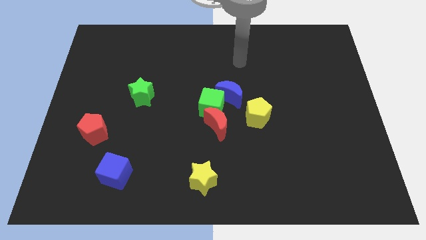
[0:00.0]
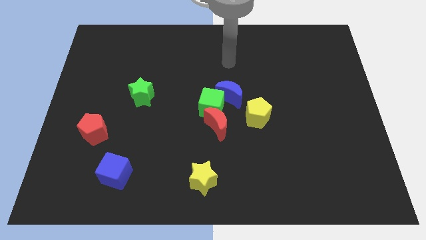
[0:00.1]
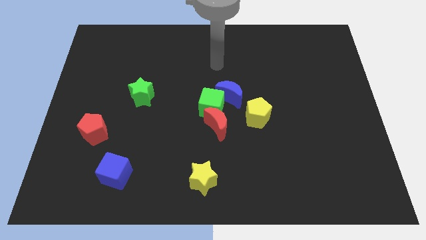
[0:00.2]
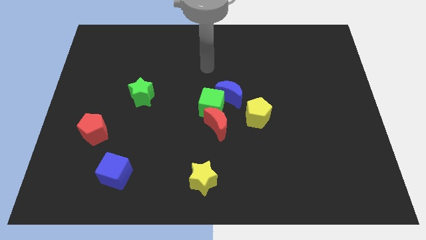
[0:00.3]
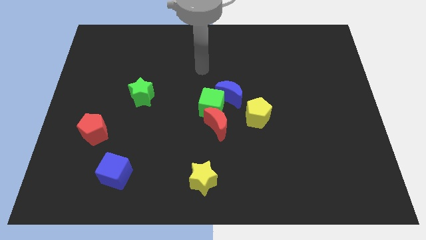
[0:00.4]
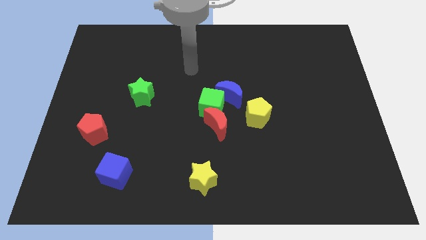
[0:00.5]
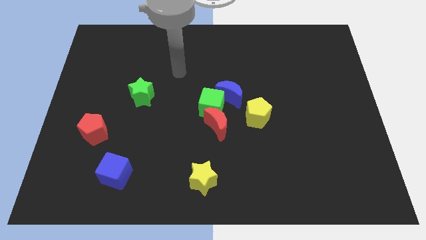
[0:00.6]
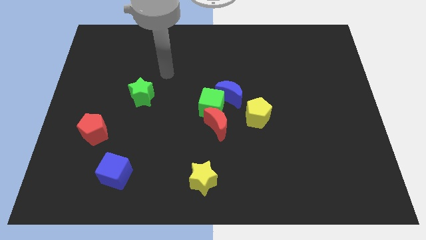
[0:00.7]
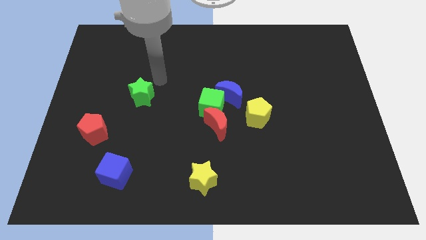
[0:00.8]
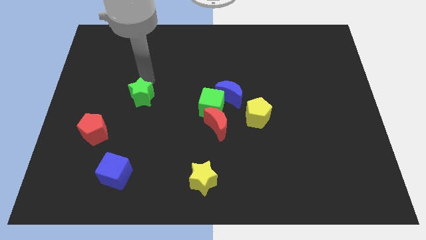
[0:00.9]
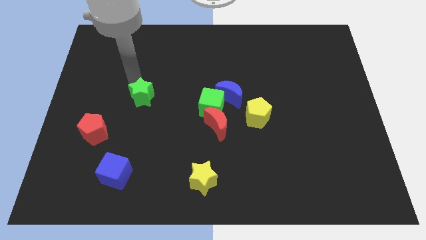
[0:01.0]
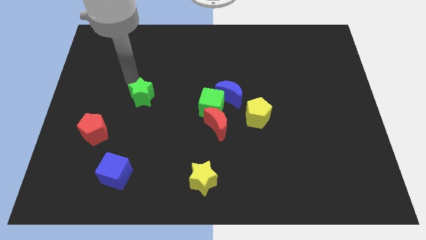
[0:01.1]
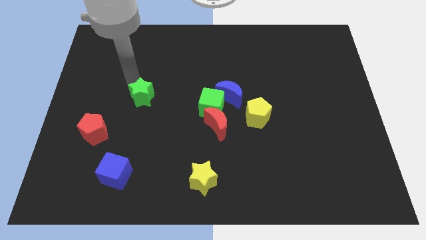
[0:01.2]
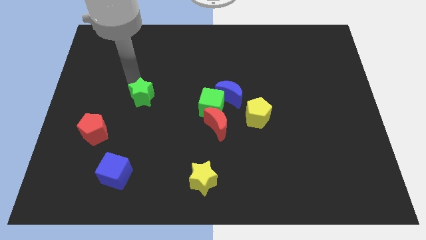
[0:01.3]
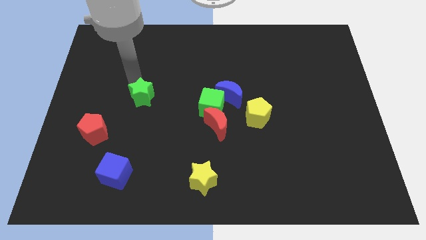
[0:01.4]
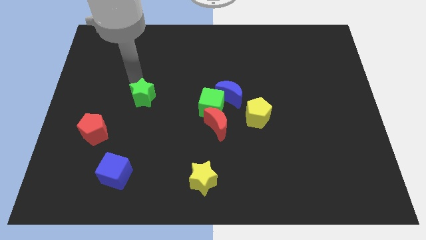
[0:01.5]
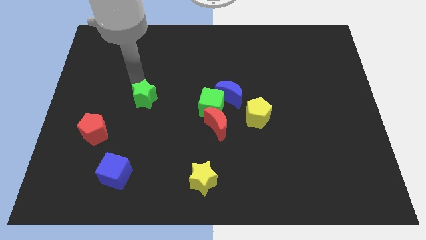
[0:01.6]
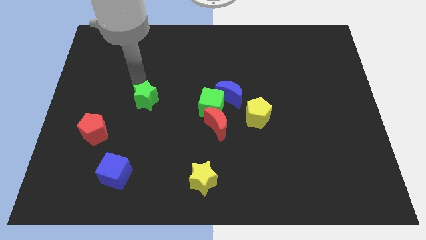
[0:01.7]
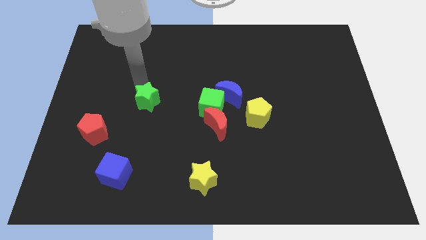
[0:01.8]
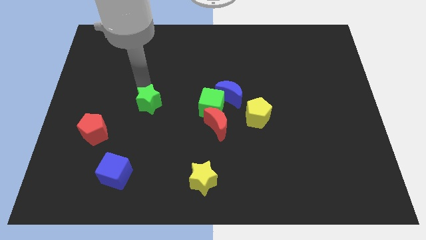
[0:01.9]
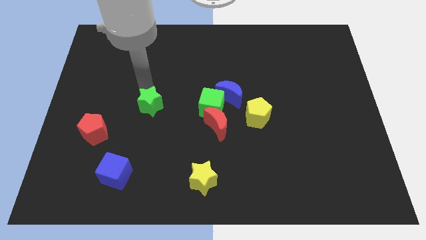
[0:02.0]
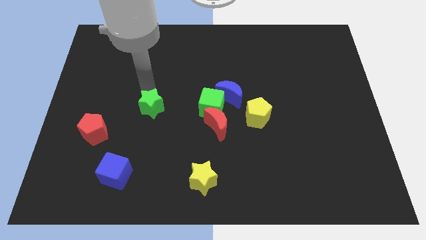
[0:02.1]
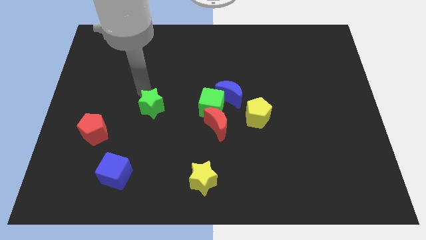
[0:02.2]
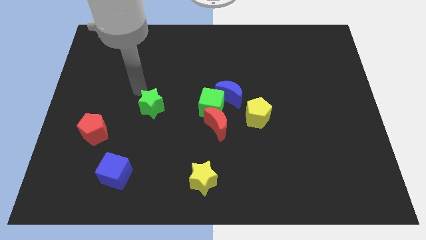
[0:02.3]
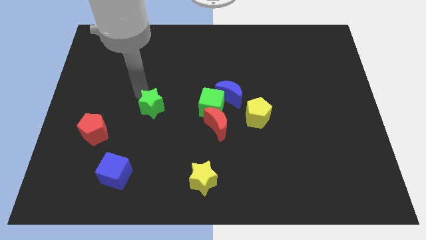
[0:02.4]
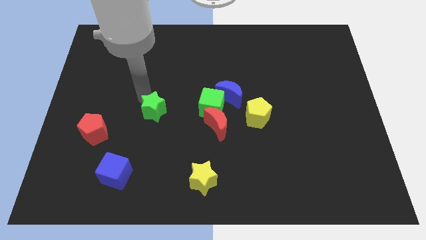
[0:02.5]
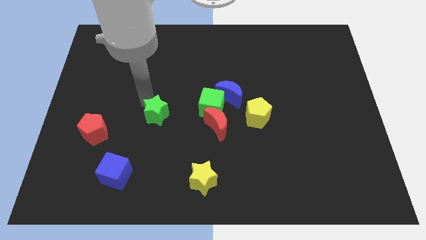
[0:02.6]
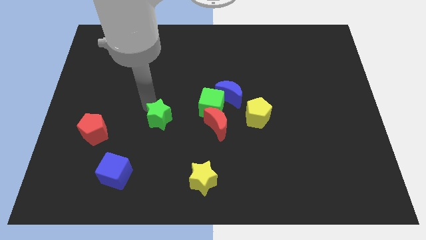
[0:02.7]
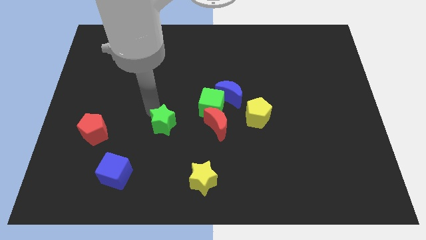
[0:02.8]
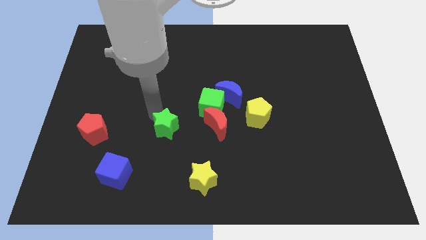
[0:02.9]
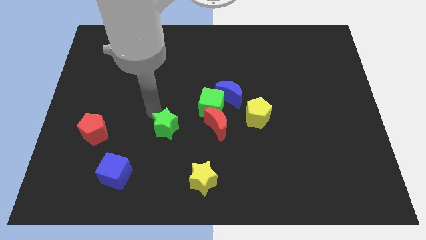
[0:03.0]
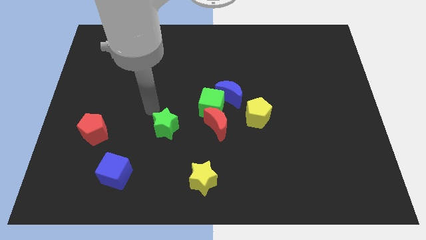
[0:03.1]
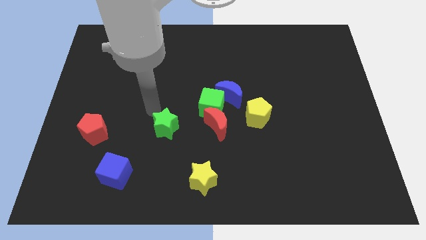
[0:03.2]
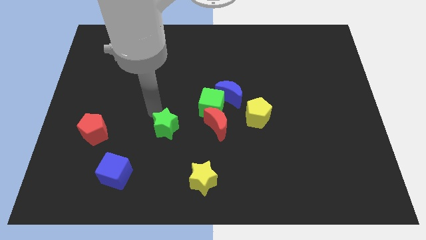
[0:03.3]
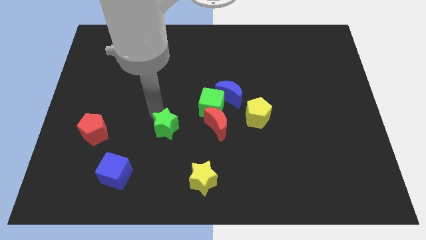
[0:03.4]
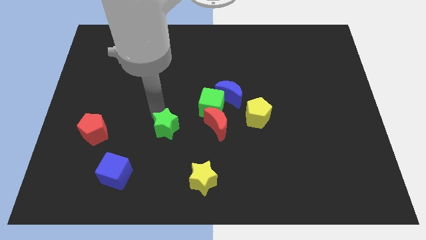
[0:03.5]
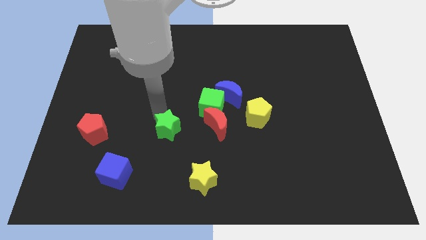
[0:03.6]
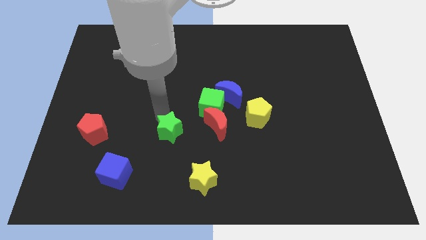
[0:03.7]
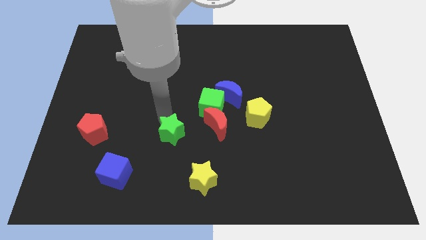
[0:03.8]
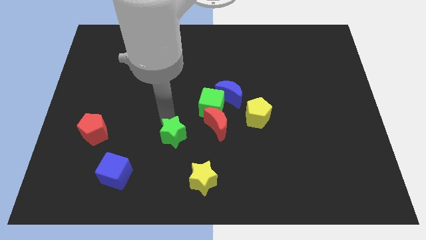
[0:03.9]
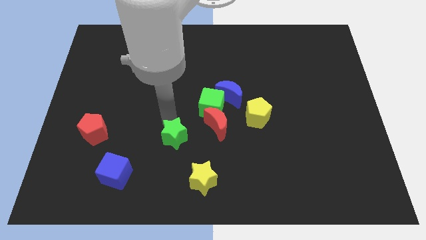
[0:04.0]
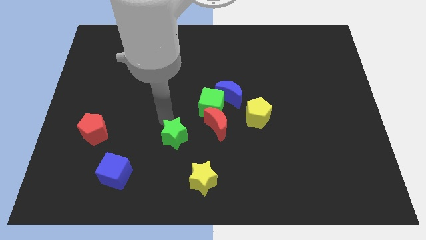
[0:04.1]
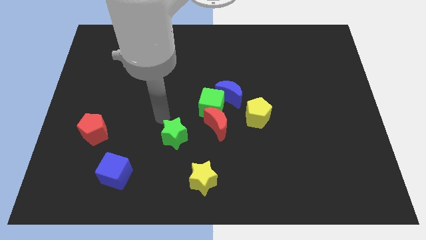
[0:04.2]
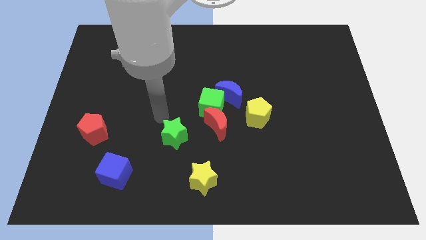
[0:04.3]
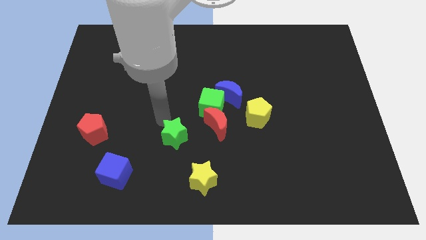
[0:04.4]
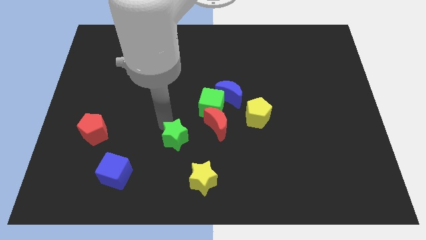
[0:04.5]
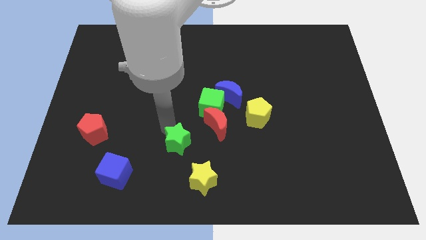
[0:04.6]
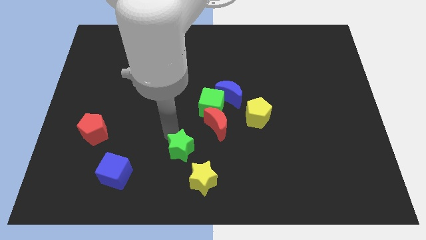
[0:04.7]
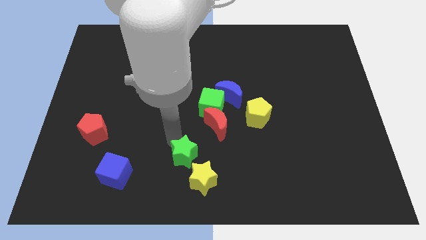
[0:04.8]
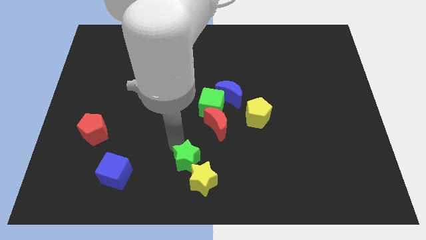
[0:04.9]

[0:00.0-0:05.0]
push the green star next to the yellow star

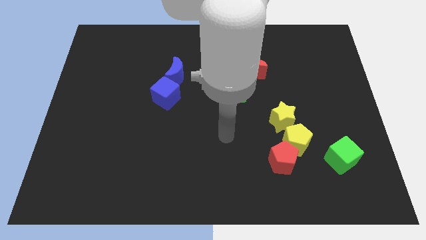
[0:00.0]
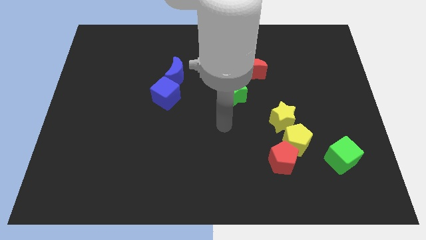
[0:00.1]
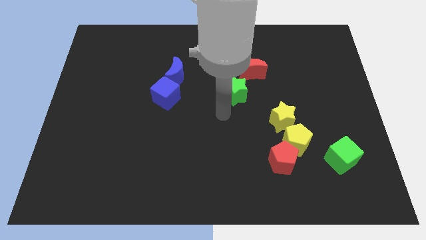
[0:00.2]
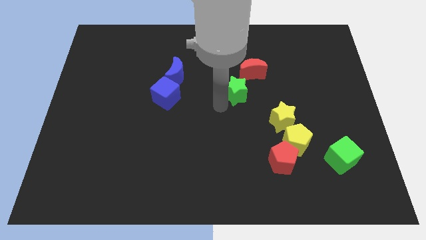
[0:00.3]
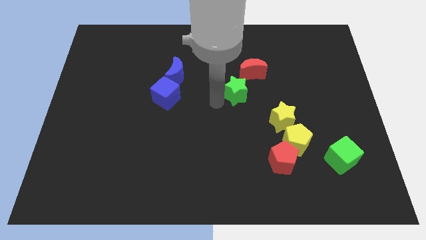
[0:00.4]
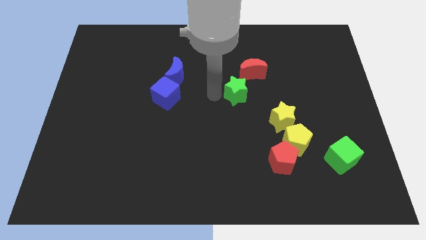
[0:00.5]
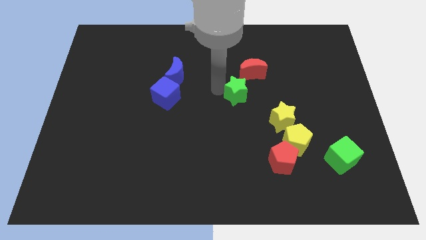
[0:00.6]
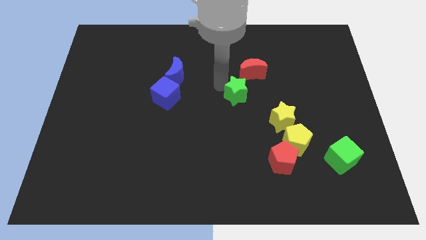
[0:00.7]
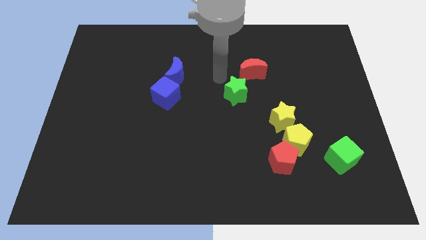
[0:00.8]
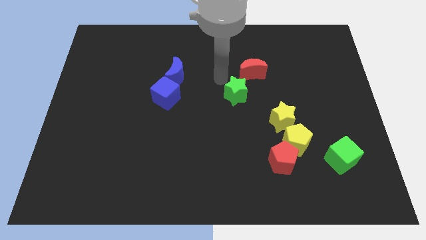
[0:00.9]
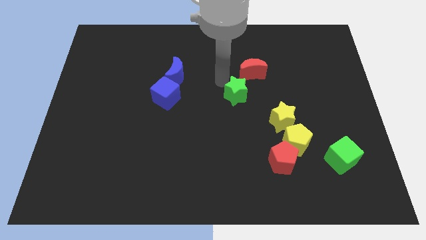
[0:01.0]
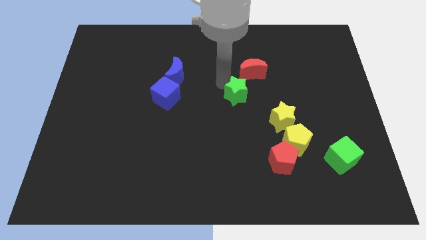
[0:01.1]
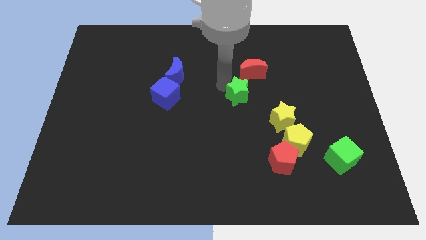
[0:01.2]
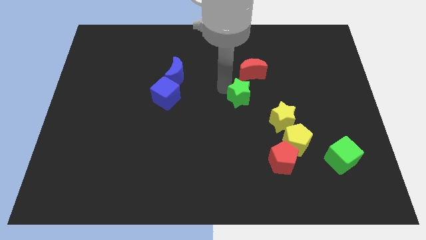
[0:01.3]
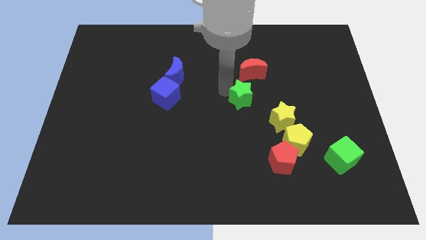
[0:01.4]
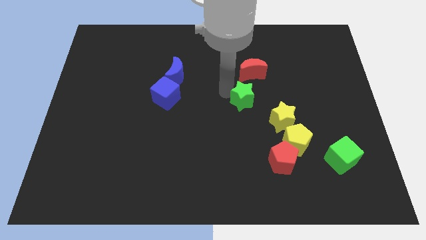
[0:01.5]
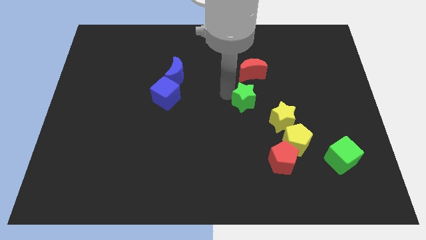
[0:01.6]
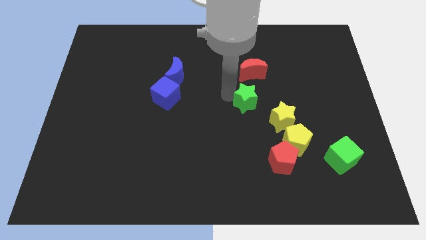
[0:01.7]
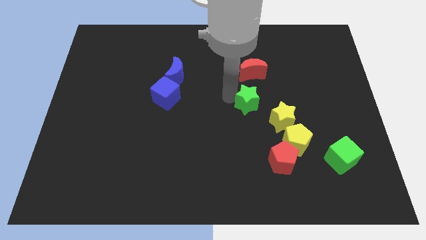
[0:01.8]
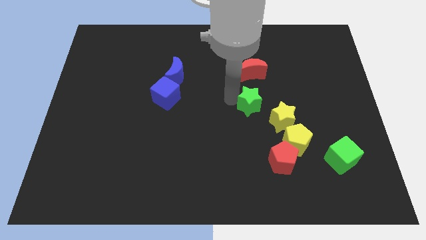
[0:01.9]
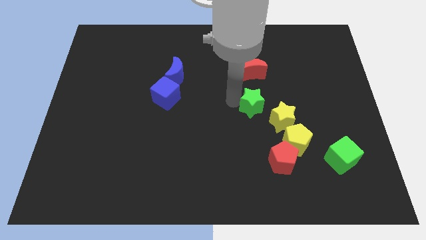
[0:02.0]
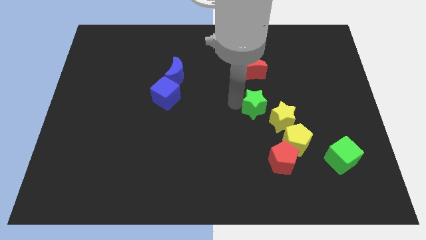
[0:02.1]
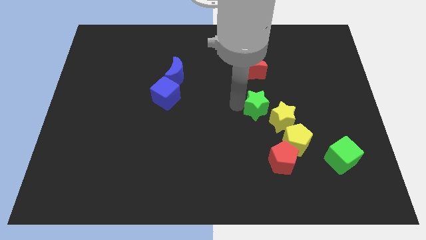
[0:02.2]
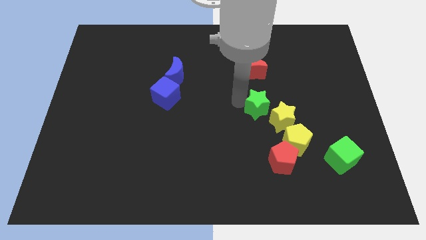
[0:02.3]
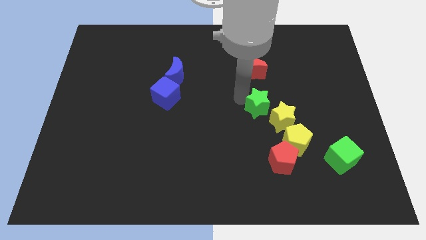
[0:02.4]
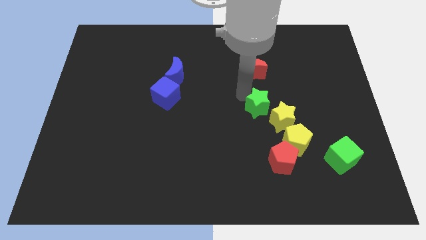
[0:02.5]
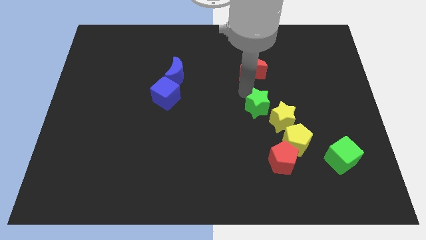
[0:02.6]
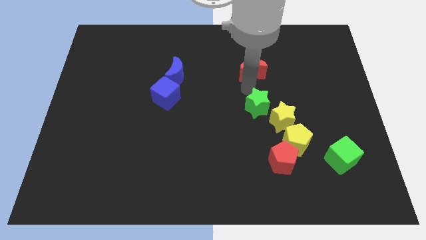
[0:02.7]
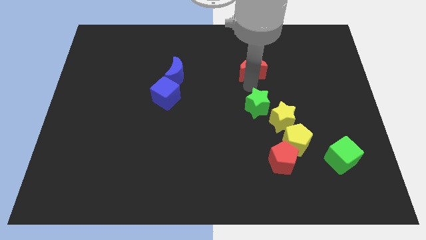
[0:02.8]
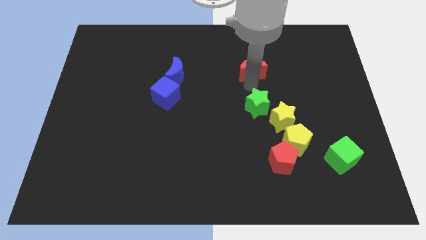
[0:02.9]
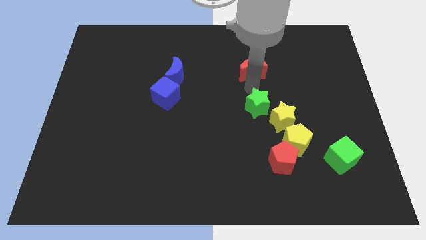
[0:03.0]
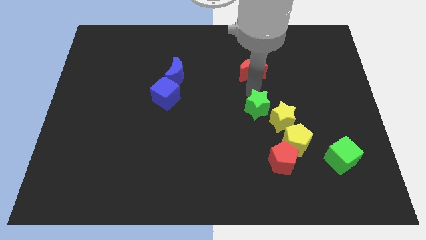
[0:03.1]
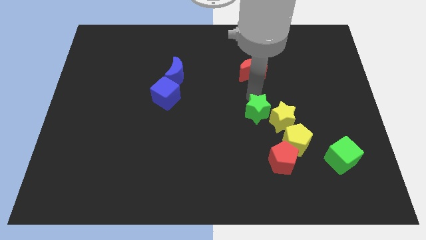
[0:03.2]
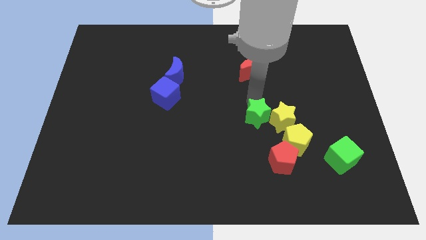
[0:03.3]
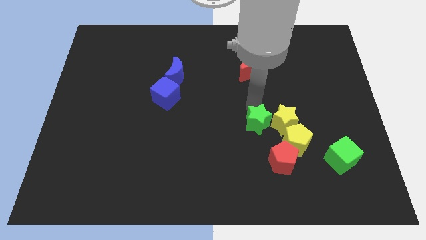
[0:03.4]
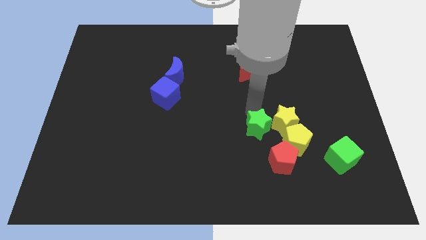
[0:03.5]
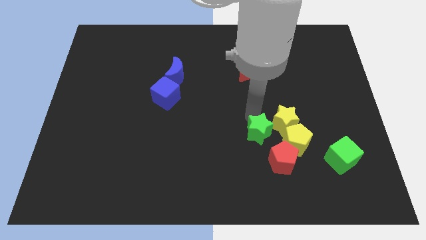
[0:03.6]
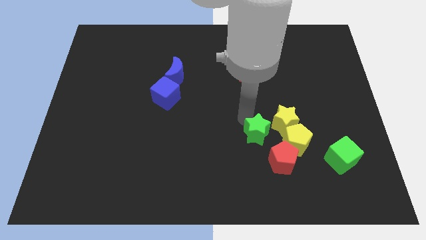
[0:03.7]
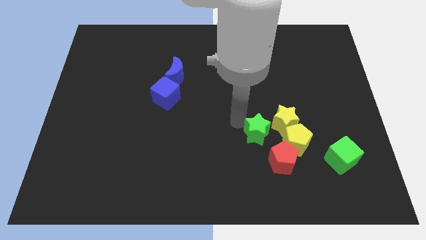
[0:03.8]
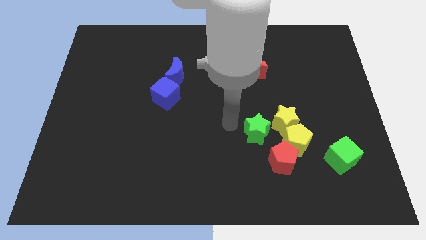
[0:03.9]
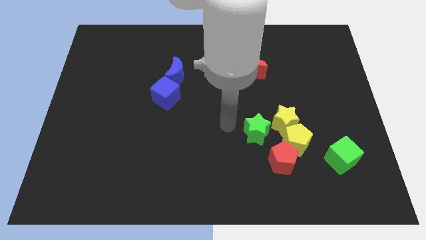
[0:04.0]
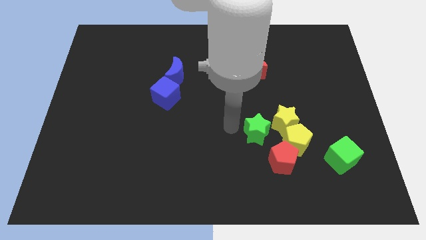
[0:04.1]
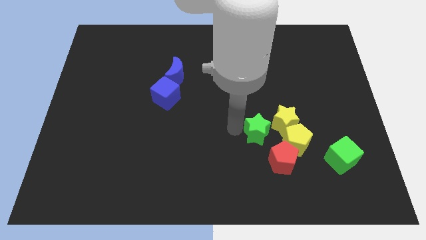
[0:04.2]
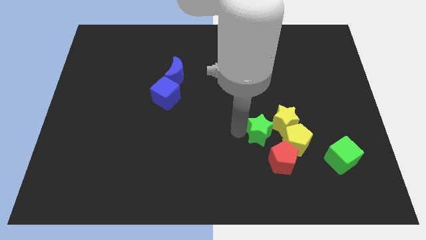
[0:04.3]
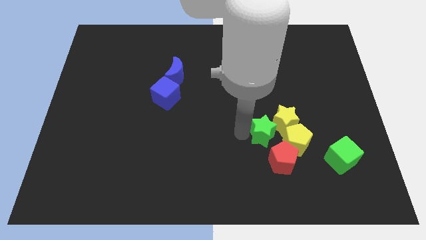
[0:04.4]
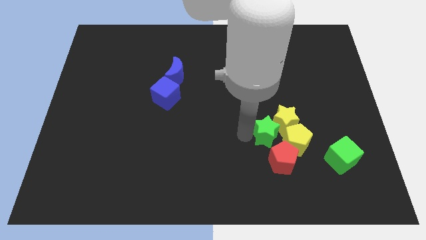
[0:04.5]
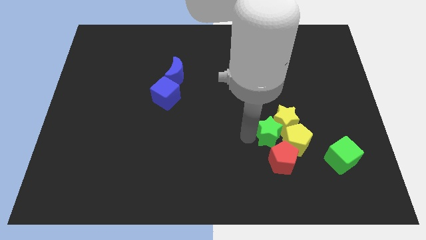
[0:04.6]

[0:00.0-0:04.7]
move the green star to the yellow pentagon
